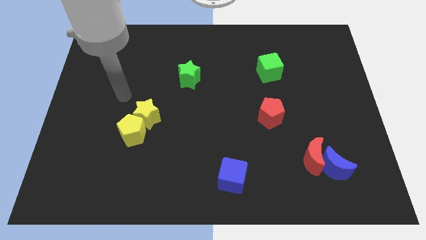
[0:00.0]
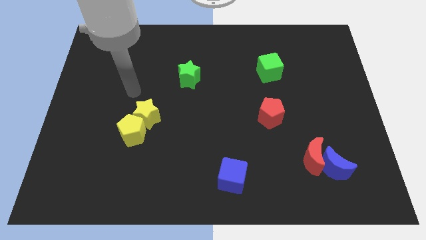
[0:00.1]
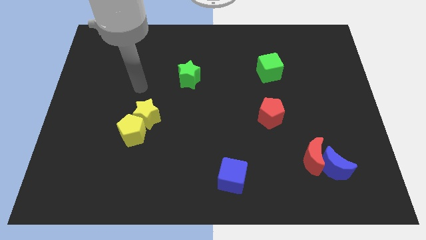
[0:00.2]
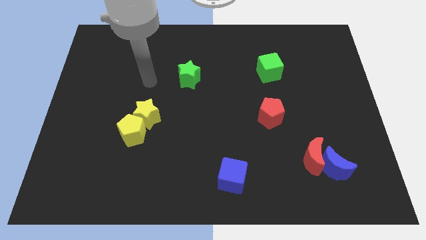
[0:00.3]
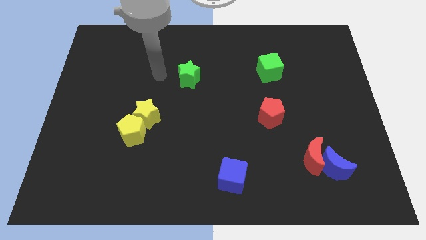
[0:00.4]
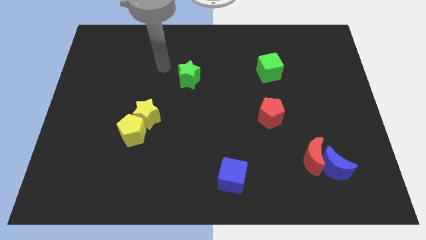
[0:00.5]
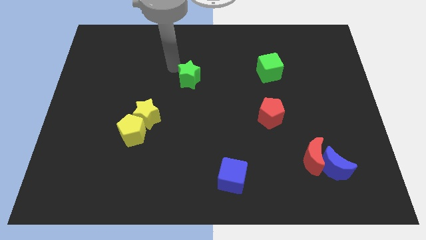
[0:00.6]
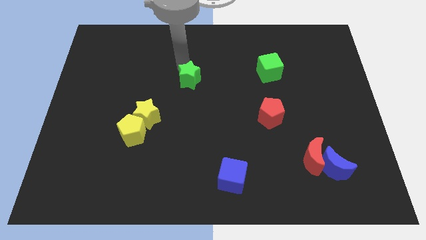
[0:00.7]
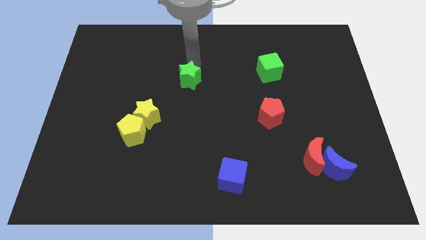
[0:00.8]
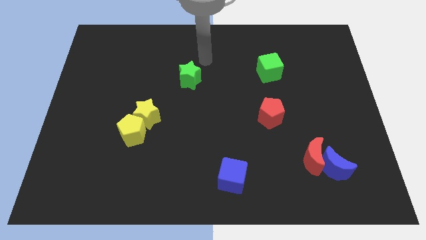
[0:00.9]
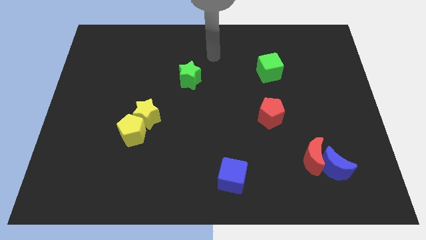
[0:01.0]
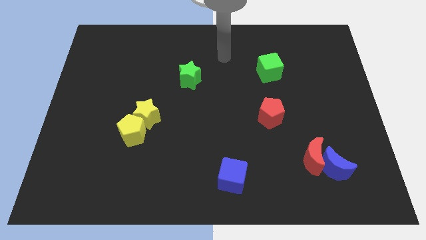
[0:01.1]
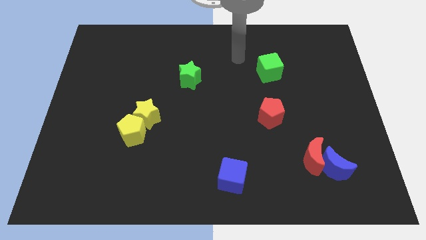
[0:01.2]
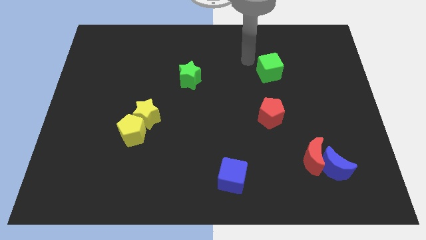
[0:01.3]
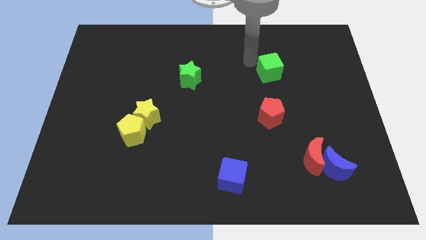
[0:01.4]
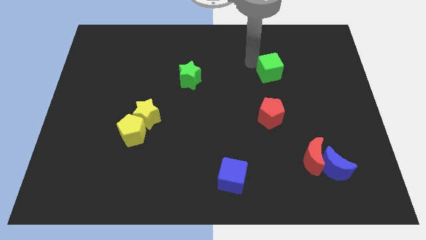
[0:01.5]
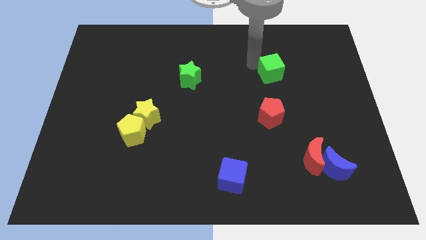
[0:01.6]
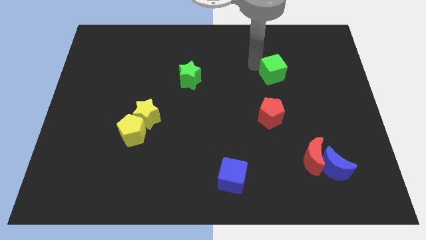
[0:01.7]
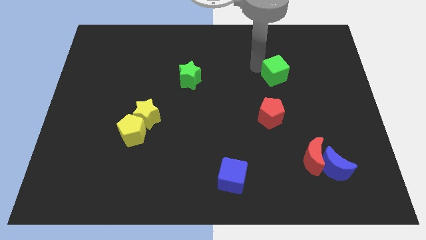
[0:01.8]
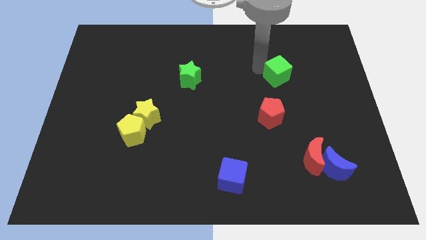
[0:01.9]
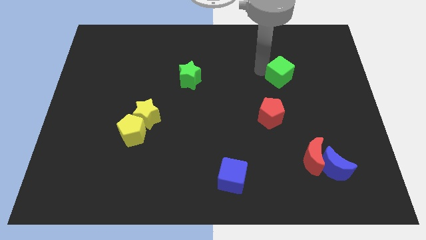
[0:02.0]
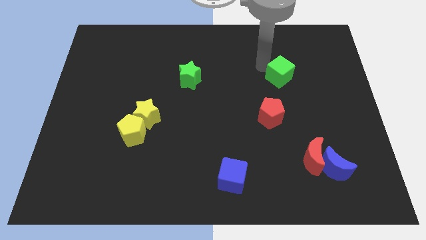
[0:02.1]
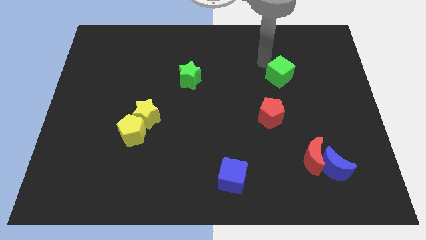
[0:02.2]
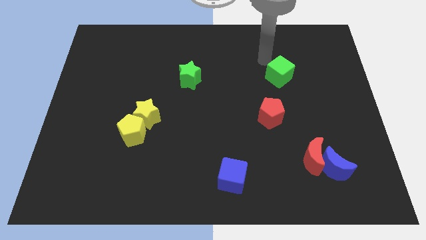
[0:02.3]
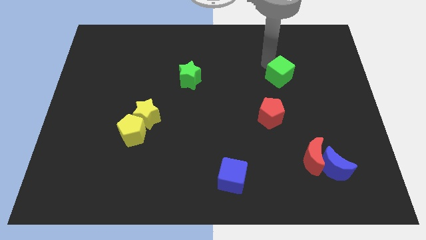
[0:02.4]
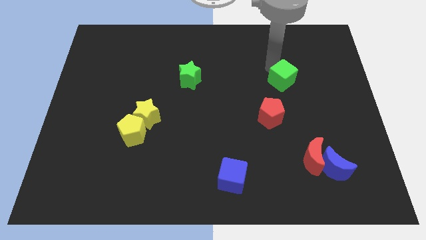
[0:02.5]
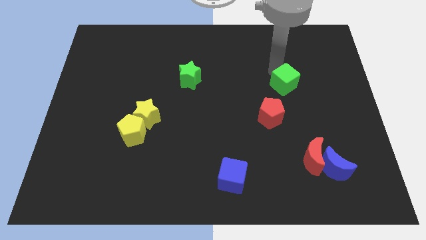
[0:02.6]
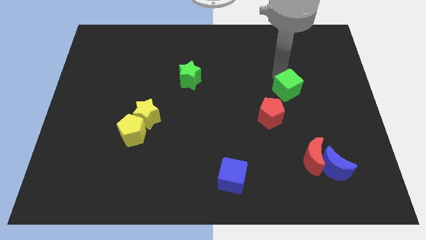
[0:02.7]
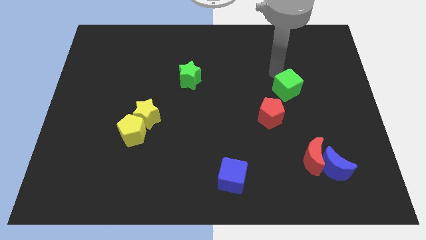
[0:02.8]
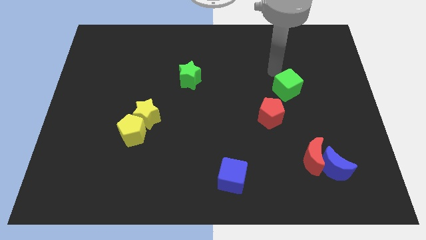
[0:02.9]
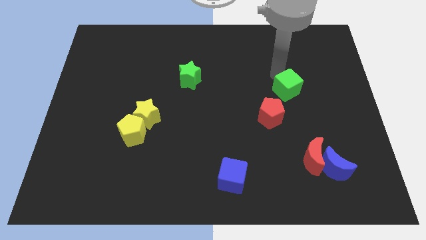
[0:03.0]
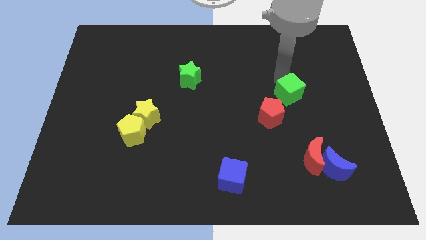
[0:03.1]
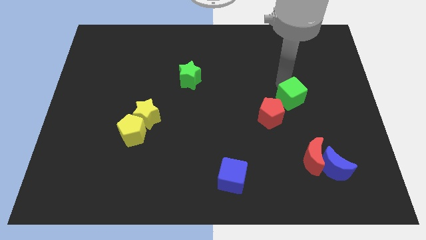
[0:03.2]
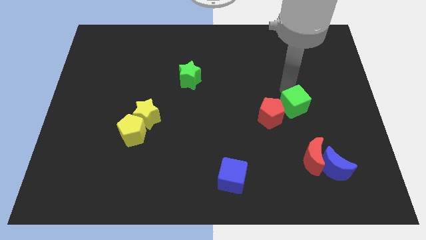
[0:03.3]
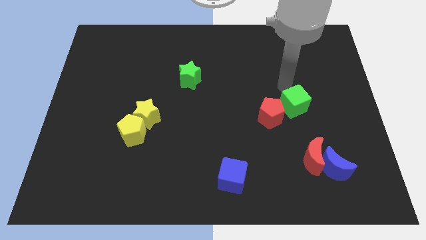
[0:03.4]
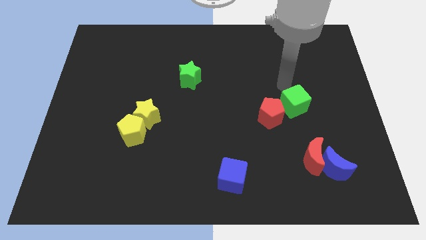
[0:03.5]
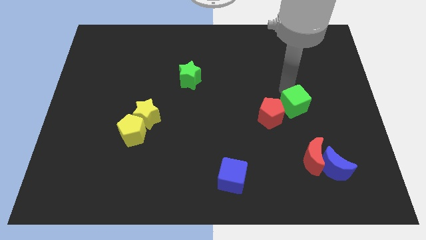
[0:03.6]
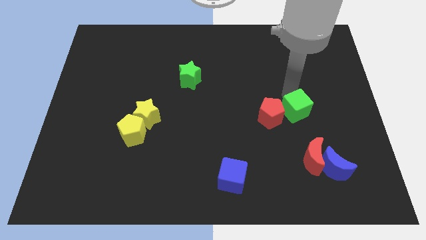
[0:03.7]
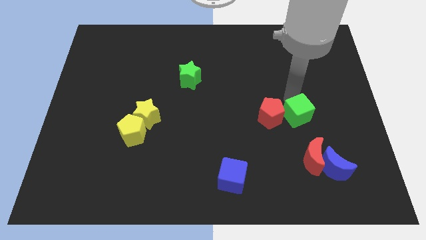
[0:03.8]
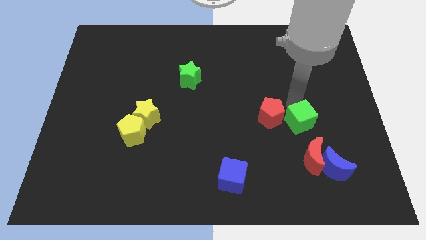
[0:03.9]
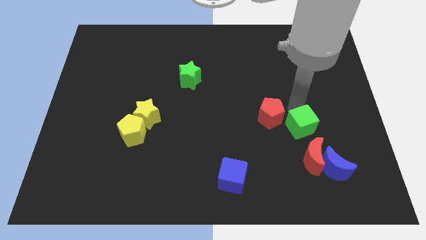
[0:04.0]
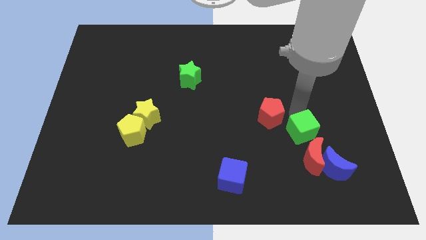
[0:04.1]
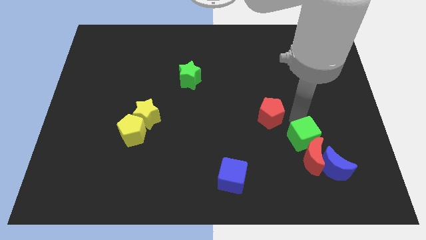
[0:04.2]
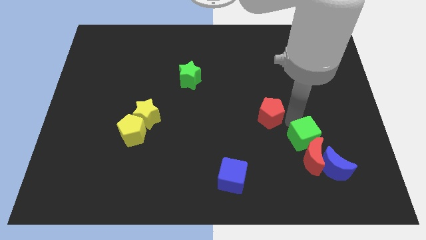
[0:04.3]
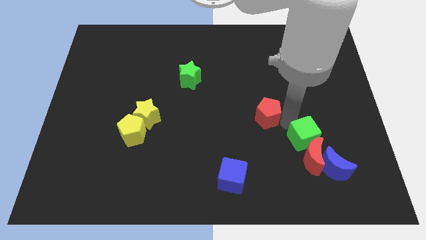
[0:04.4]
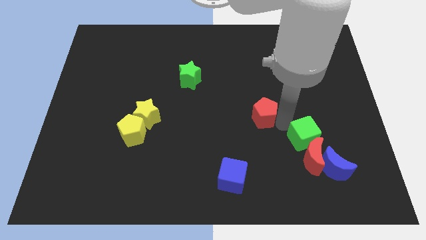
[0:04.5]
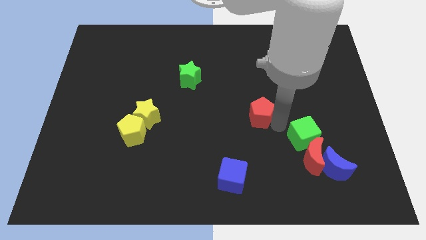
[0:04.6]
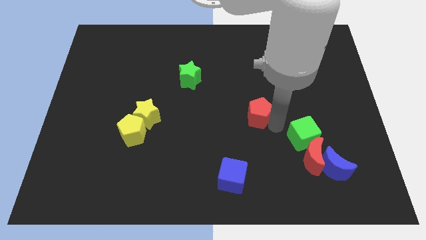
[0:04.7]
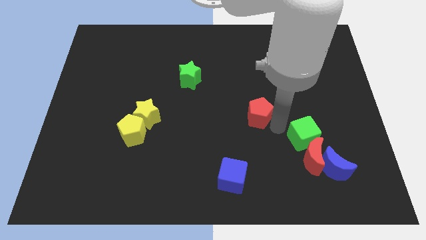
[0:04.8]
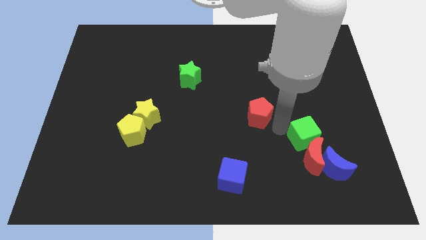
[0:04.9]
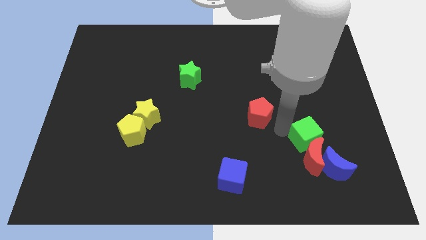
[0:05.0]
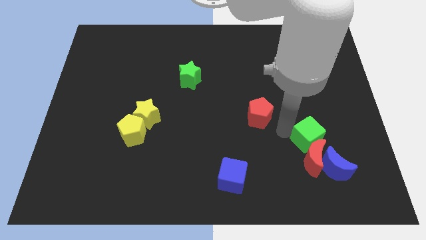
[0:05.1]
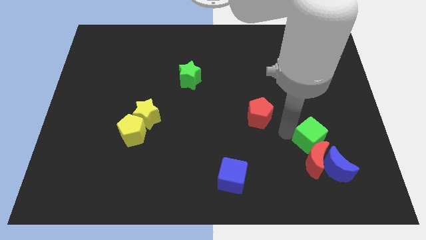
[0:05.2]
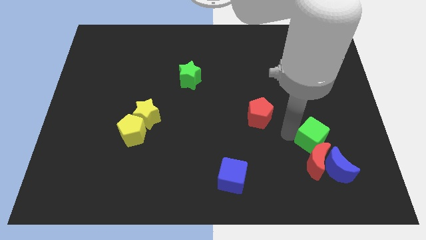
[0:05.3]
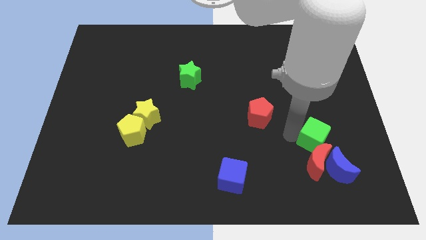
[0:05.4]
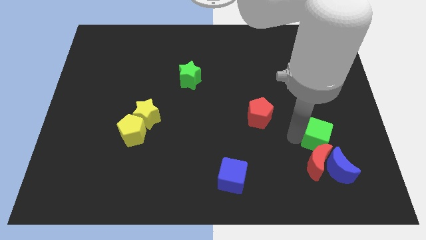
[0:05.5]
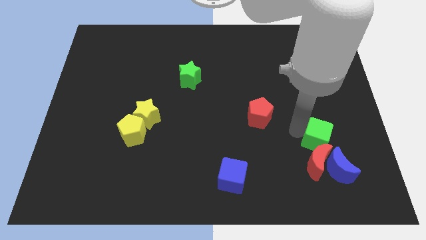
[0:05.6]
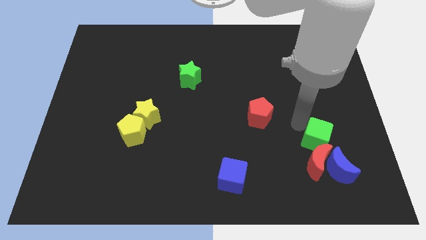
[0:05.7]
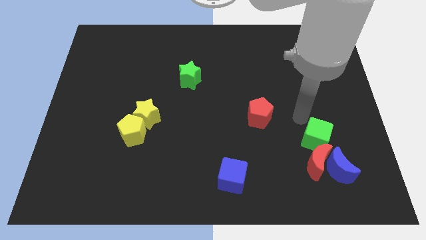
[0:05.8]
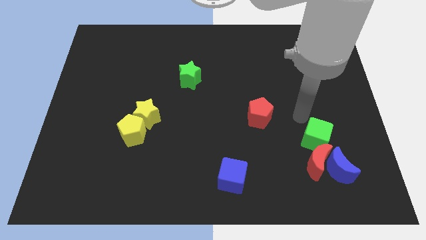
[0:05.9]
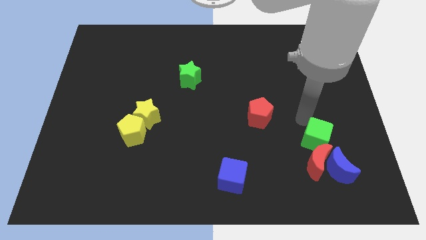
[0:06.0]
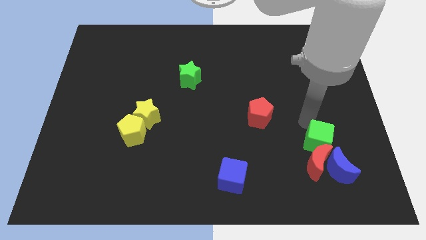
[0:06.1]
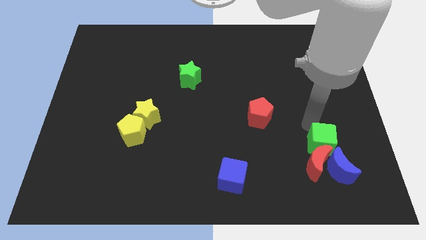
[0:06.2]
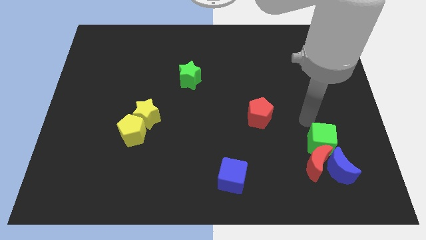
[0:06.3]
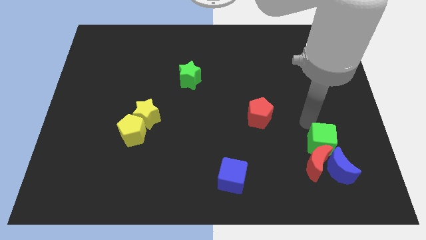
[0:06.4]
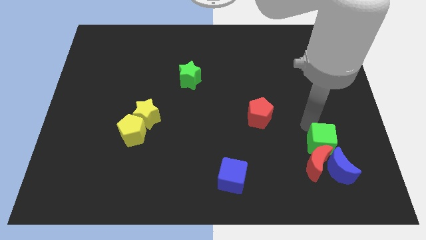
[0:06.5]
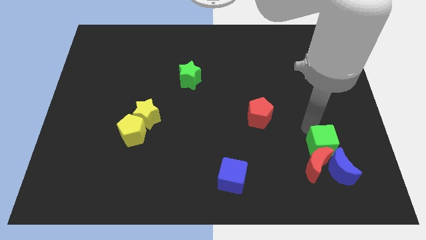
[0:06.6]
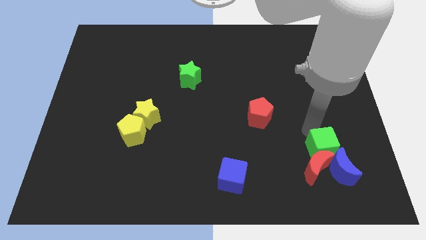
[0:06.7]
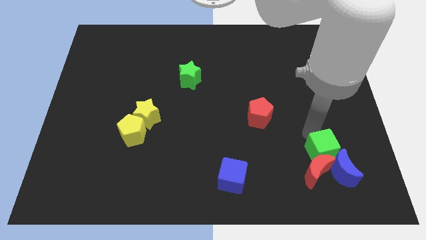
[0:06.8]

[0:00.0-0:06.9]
slide the green cube next to the blue moon

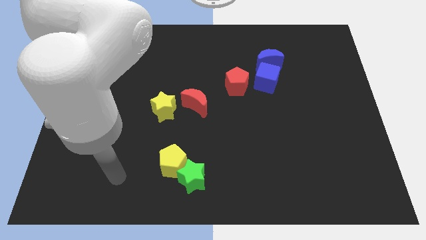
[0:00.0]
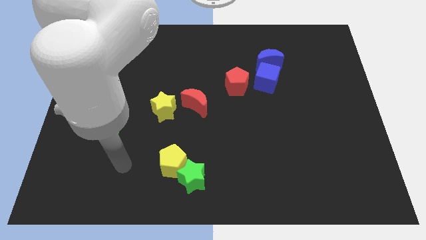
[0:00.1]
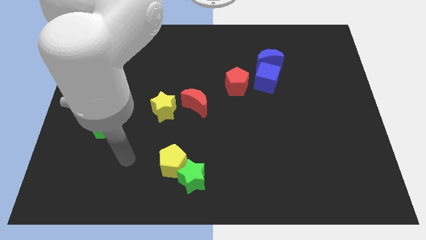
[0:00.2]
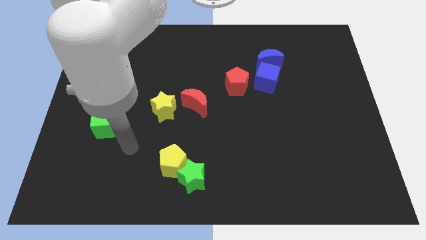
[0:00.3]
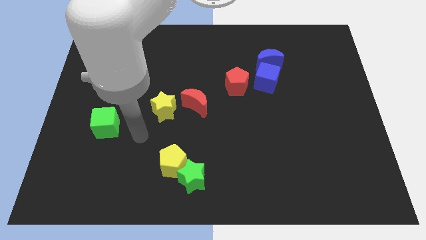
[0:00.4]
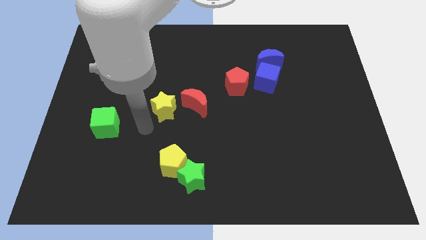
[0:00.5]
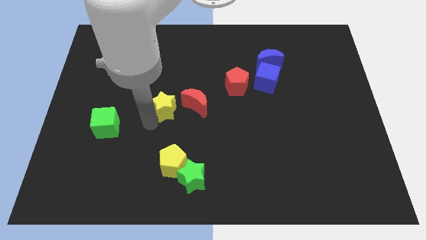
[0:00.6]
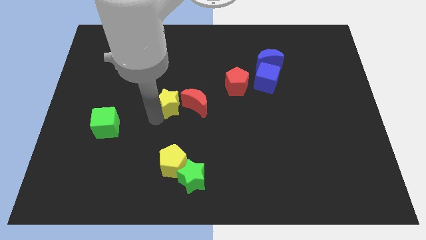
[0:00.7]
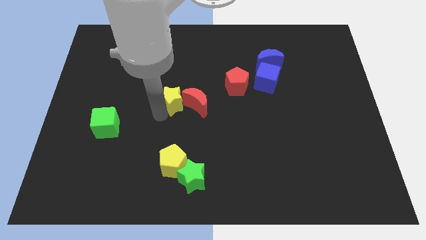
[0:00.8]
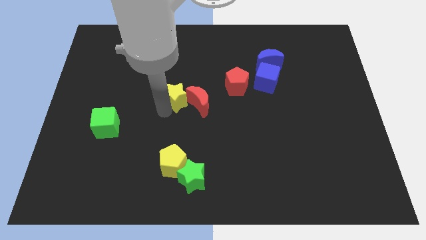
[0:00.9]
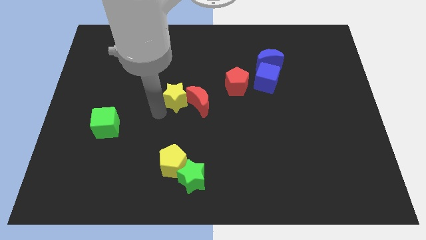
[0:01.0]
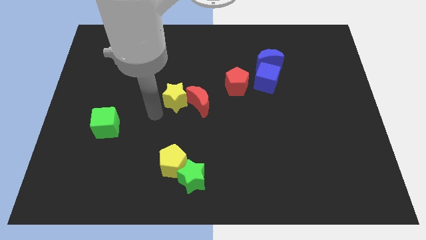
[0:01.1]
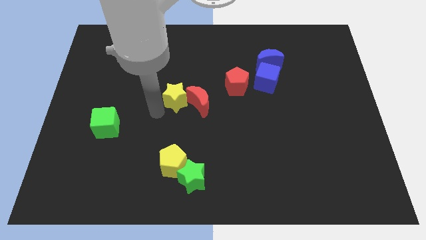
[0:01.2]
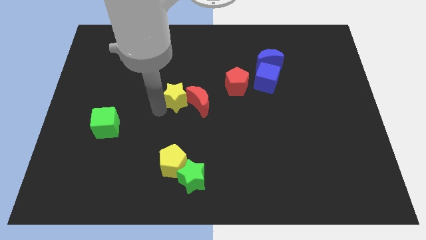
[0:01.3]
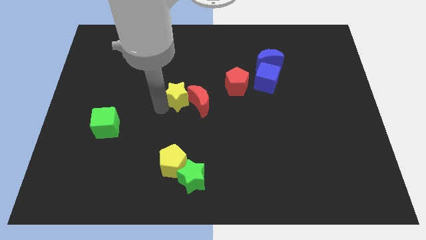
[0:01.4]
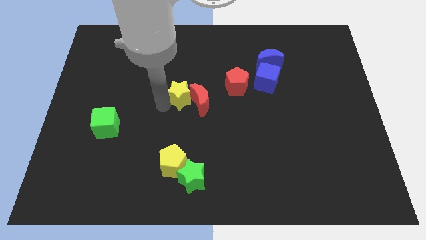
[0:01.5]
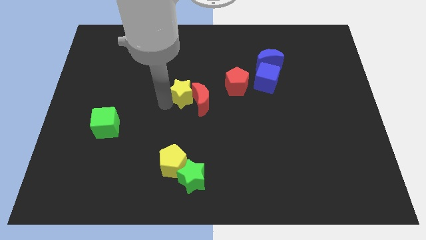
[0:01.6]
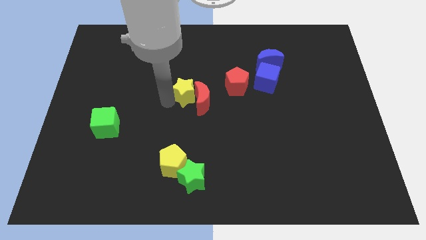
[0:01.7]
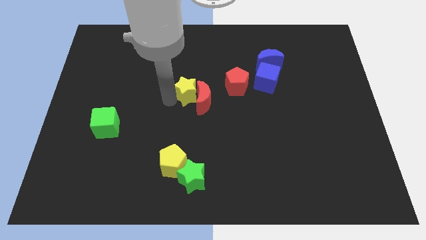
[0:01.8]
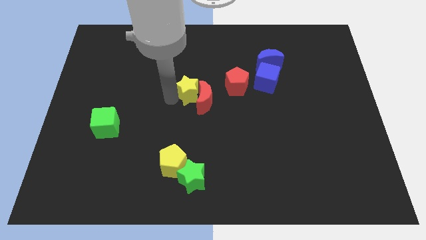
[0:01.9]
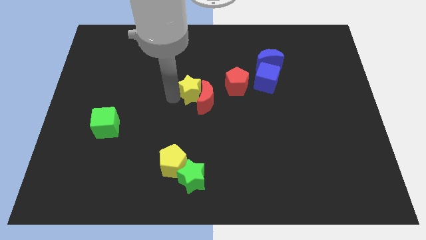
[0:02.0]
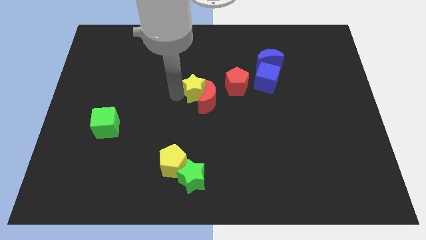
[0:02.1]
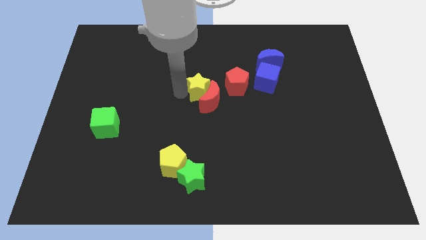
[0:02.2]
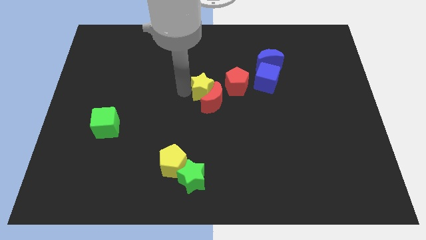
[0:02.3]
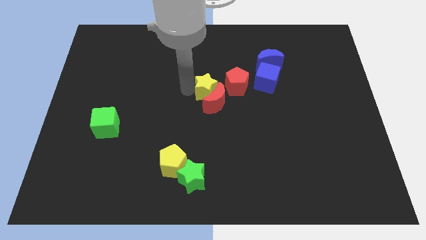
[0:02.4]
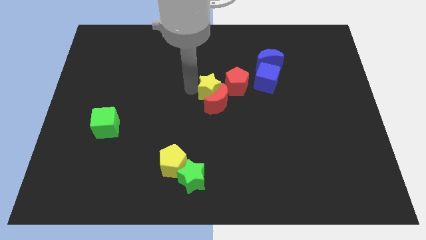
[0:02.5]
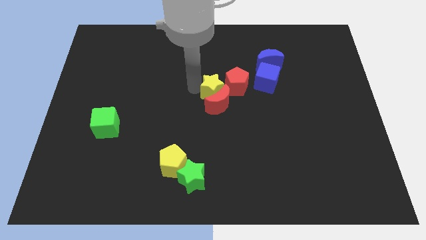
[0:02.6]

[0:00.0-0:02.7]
push the yellow star towards the red pentagon
